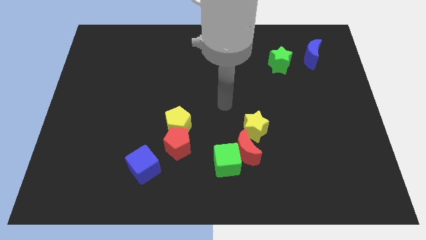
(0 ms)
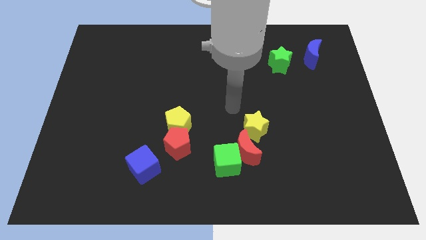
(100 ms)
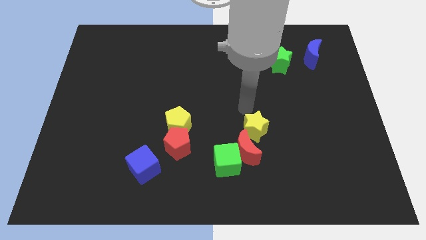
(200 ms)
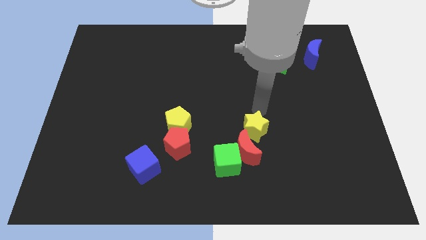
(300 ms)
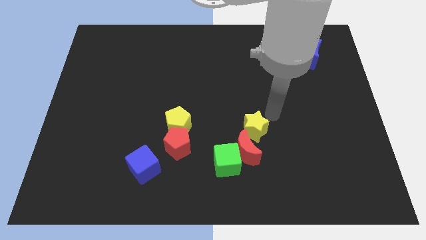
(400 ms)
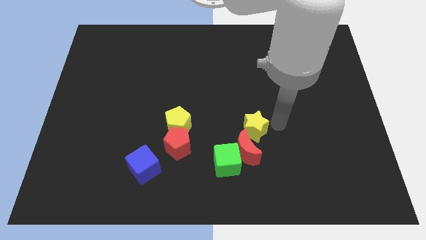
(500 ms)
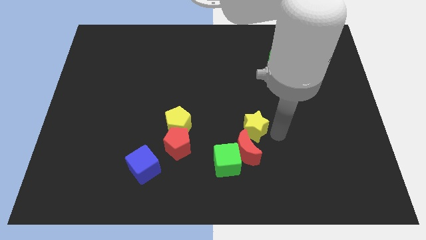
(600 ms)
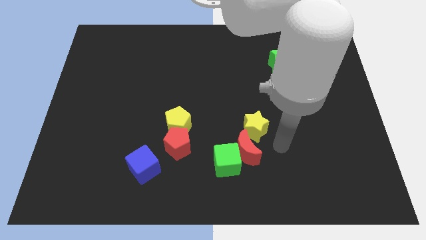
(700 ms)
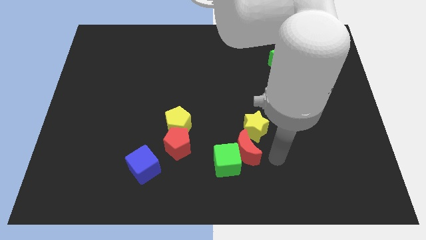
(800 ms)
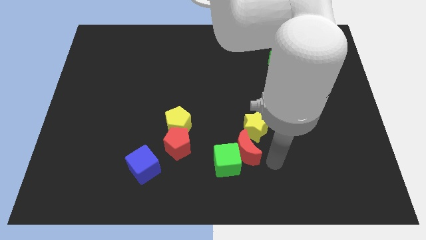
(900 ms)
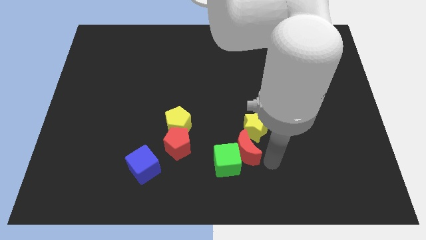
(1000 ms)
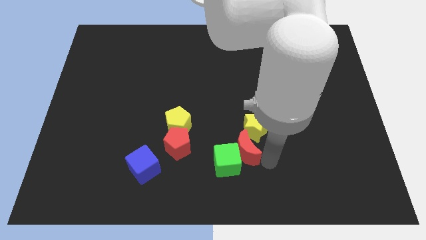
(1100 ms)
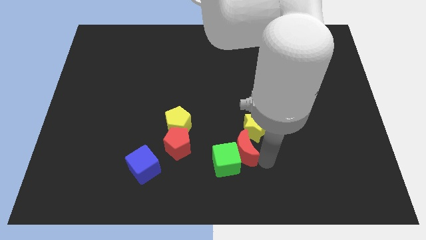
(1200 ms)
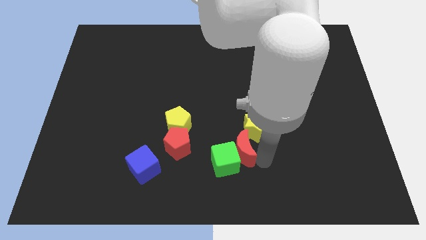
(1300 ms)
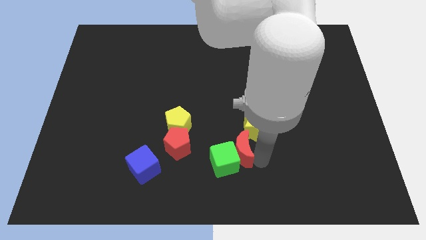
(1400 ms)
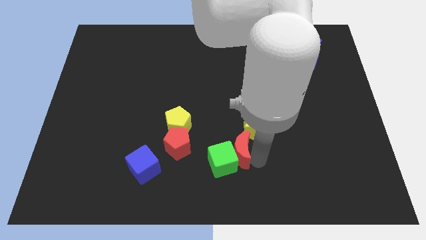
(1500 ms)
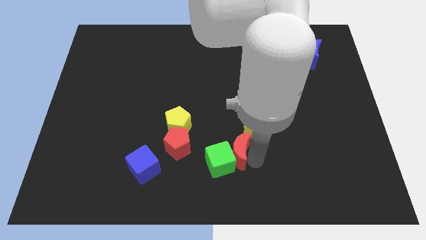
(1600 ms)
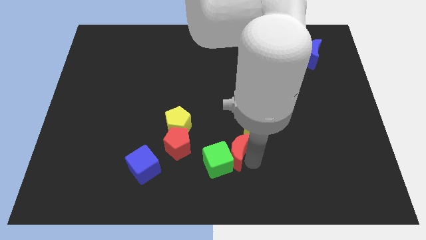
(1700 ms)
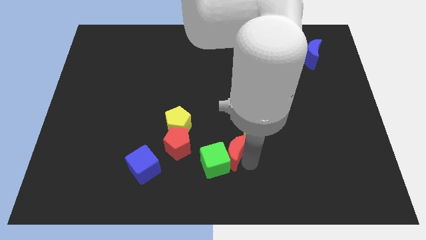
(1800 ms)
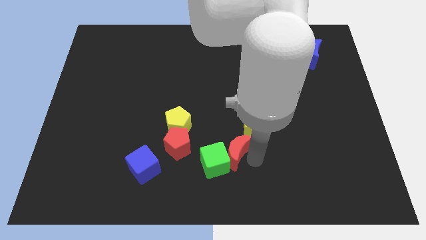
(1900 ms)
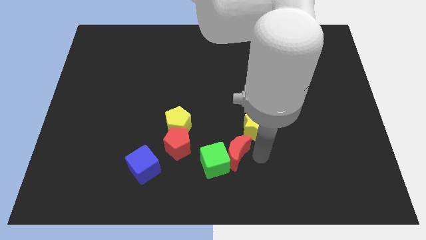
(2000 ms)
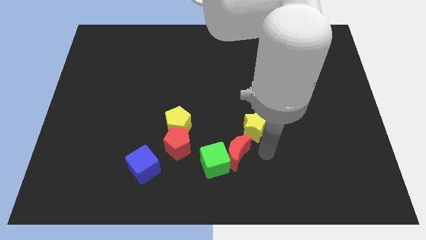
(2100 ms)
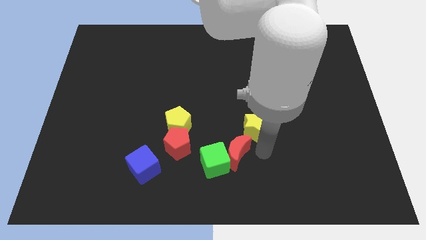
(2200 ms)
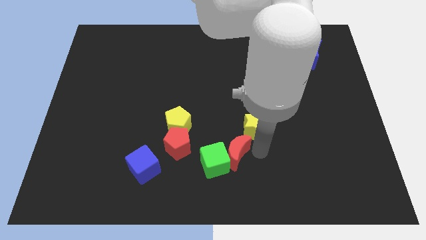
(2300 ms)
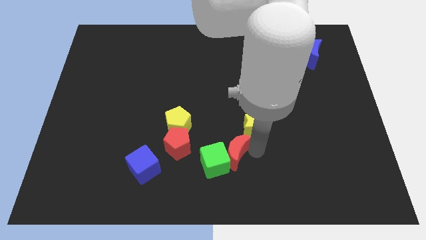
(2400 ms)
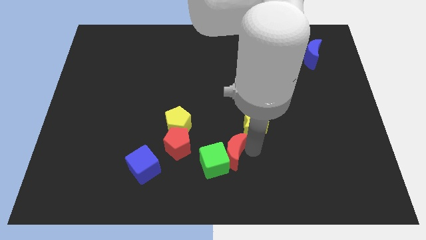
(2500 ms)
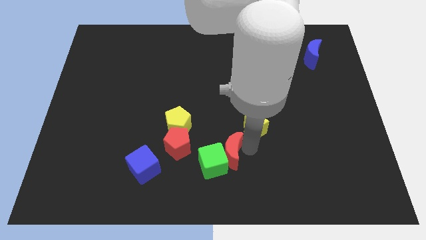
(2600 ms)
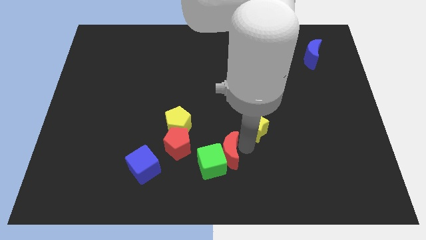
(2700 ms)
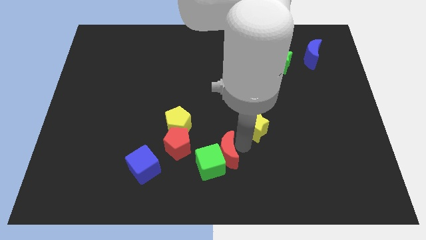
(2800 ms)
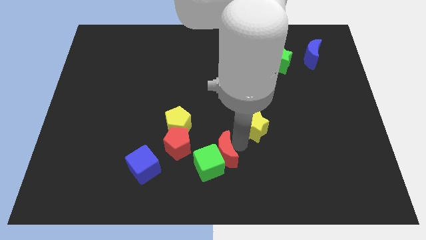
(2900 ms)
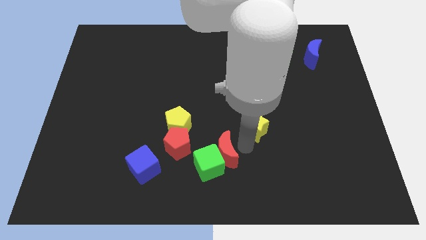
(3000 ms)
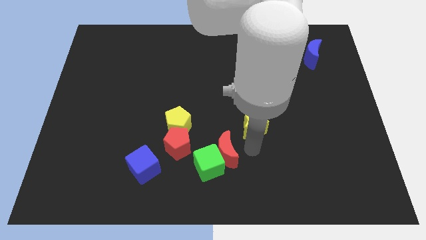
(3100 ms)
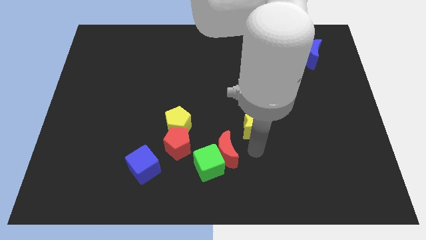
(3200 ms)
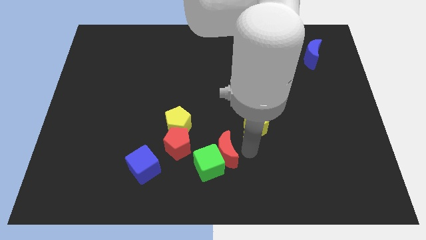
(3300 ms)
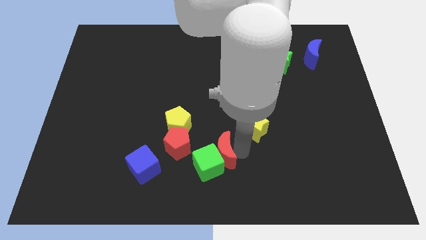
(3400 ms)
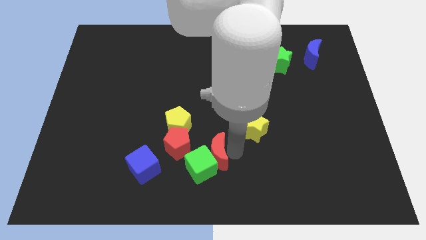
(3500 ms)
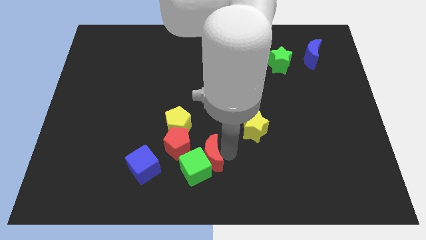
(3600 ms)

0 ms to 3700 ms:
slide the red moon to the left slightly

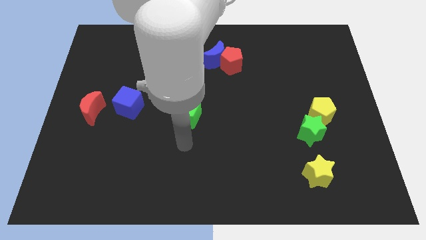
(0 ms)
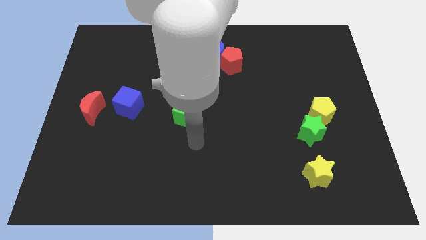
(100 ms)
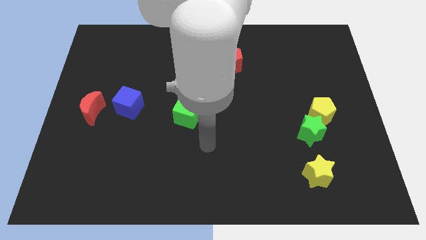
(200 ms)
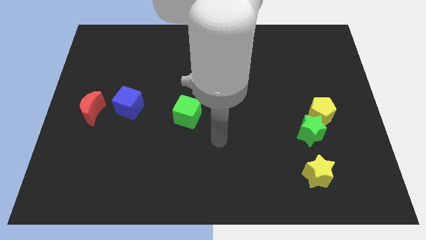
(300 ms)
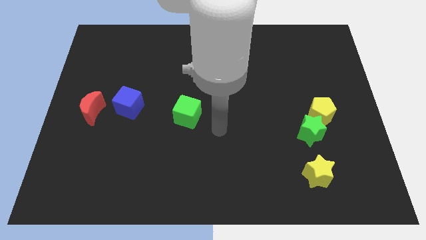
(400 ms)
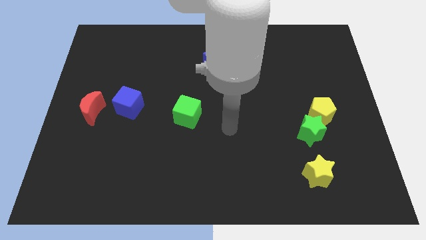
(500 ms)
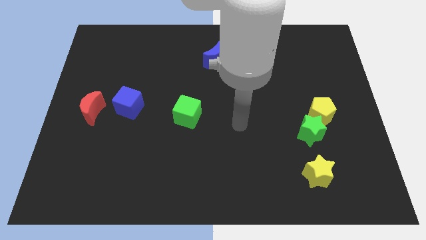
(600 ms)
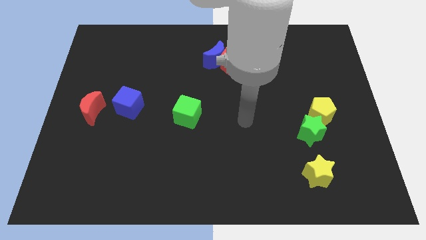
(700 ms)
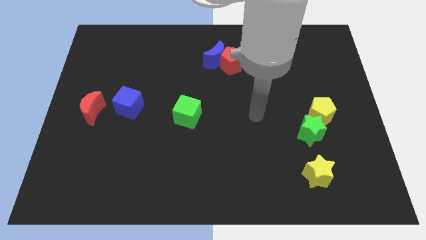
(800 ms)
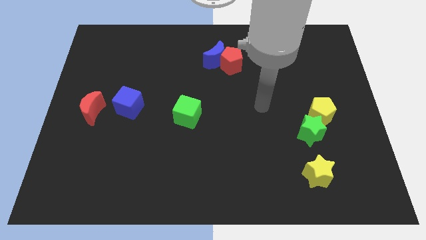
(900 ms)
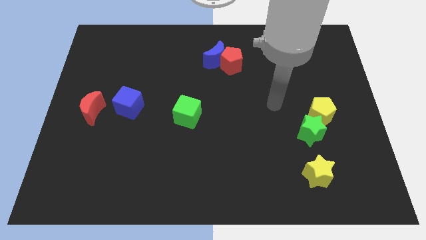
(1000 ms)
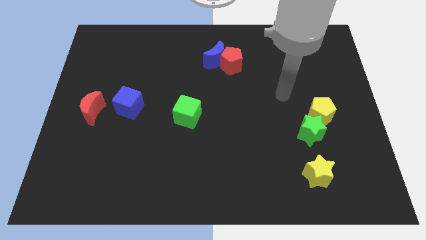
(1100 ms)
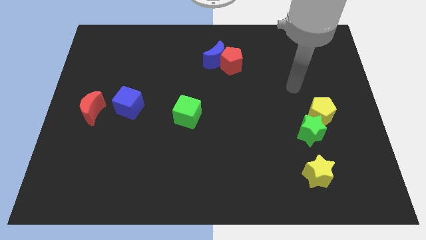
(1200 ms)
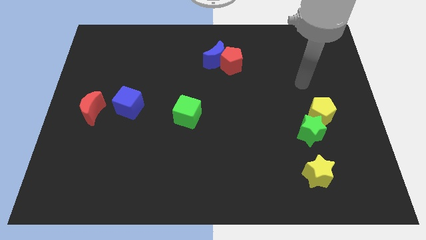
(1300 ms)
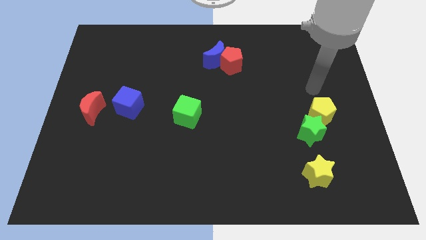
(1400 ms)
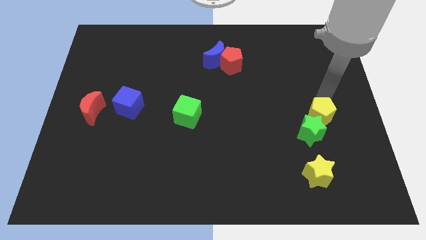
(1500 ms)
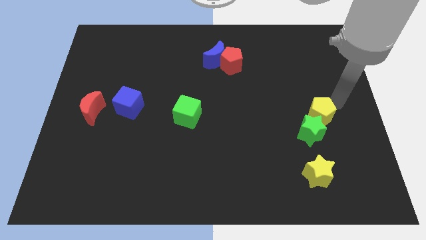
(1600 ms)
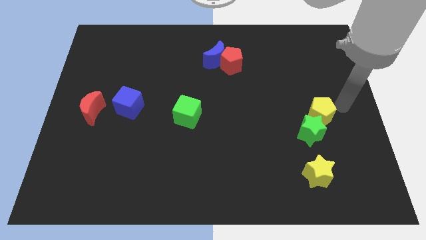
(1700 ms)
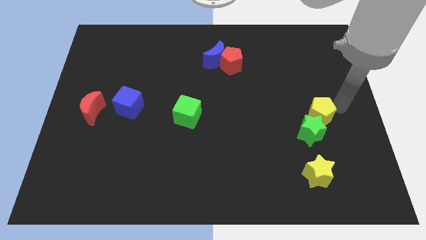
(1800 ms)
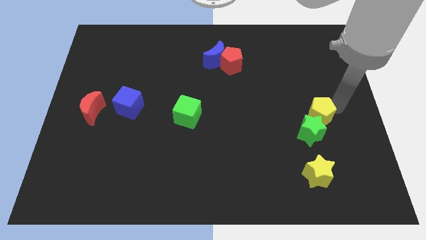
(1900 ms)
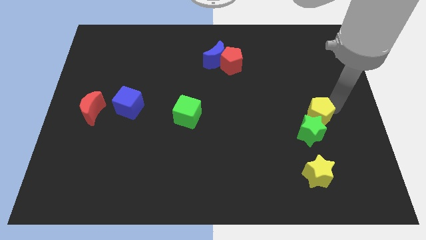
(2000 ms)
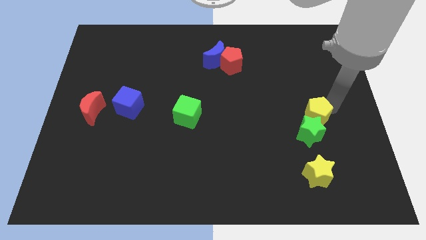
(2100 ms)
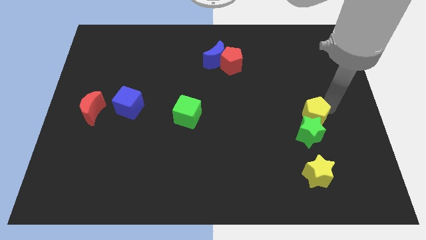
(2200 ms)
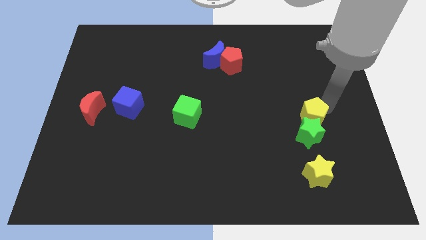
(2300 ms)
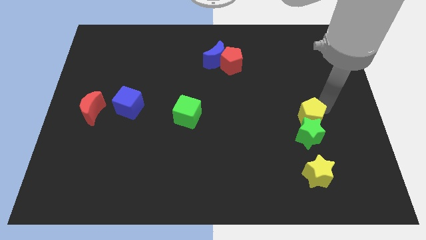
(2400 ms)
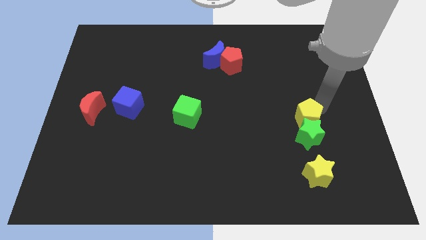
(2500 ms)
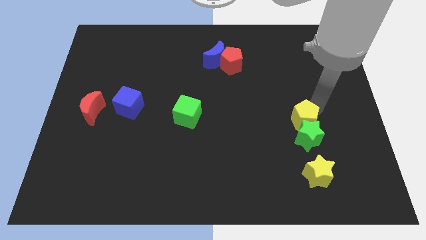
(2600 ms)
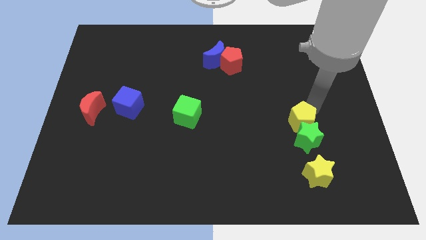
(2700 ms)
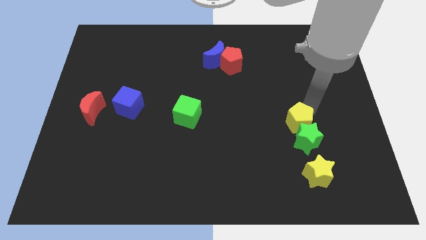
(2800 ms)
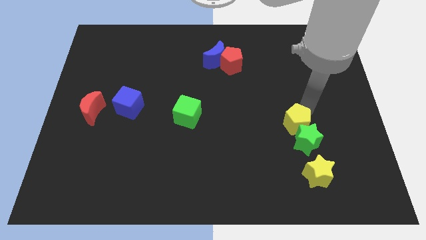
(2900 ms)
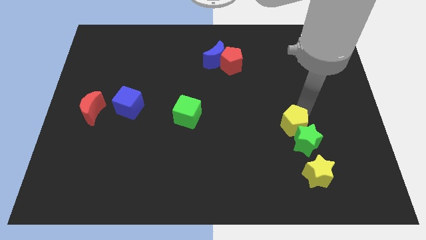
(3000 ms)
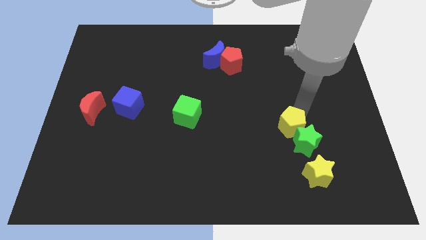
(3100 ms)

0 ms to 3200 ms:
slide the yellow pentagon a bit downwards and to the left

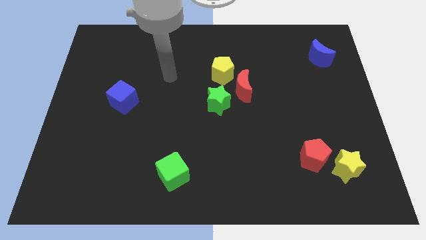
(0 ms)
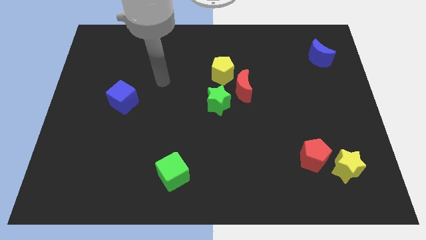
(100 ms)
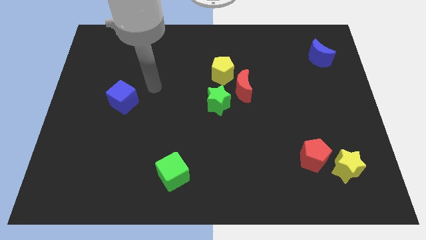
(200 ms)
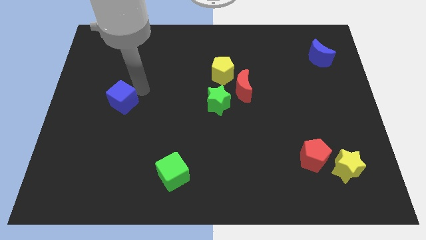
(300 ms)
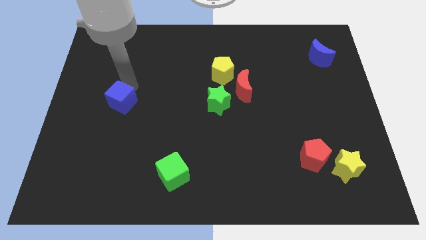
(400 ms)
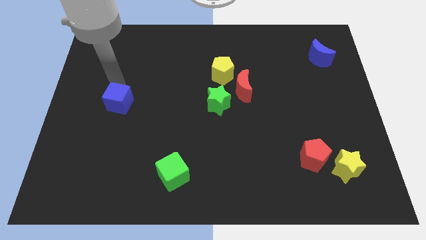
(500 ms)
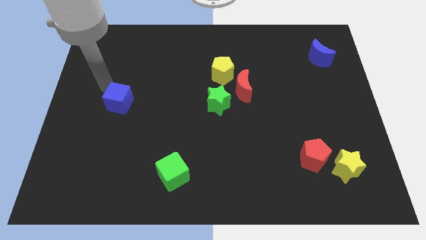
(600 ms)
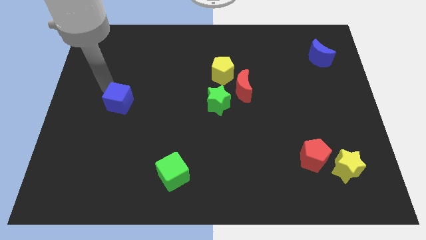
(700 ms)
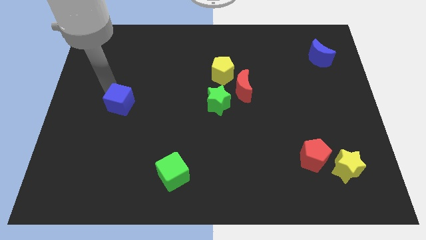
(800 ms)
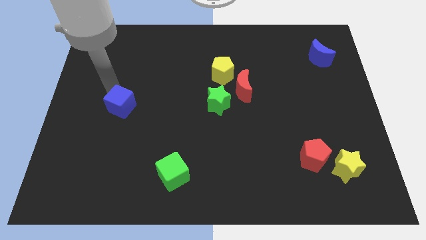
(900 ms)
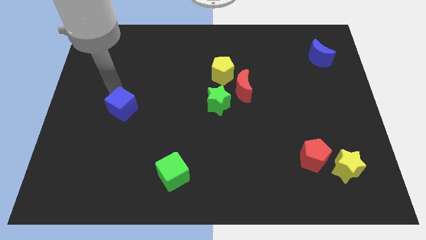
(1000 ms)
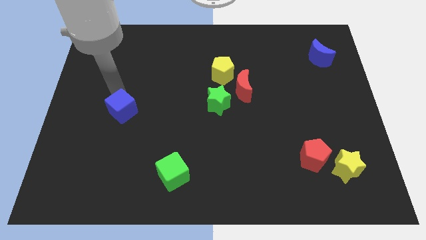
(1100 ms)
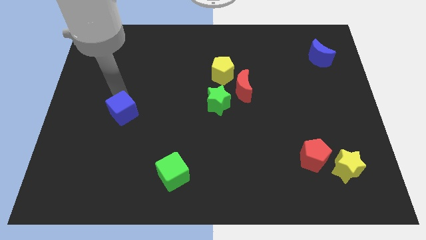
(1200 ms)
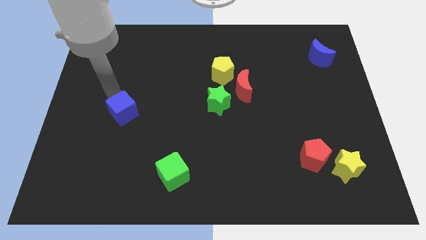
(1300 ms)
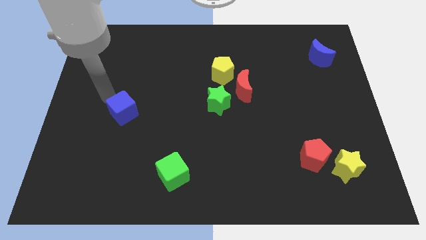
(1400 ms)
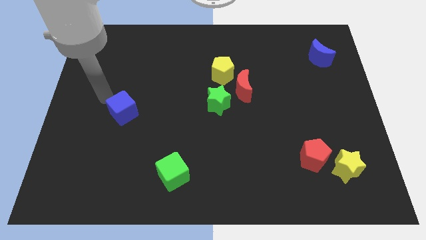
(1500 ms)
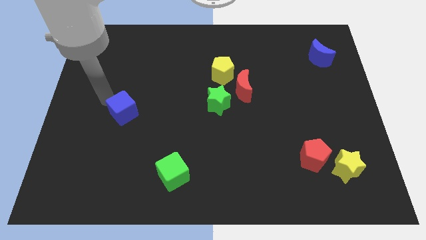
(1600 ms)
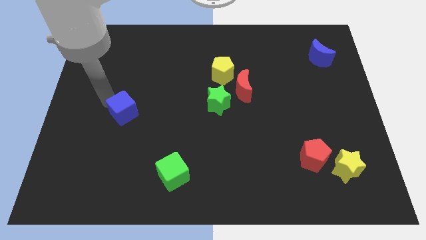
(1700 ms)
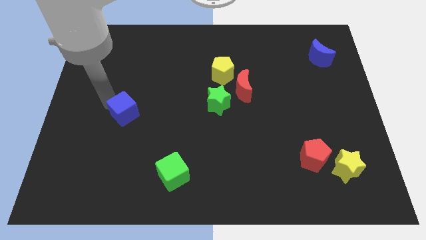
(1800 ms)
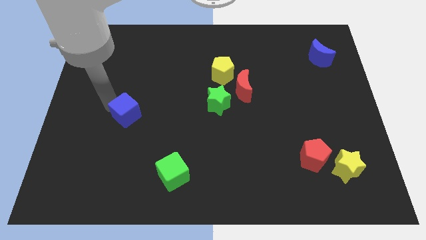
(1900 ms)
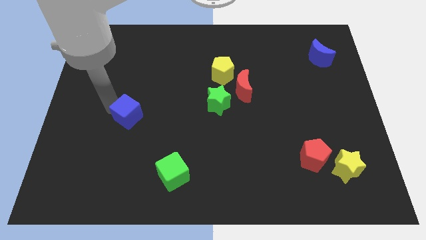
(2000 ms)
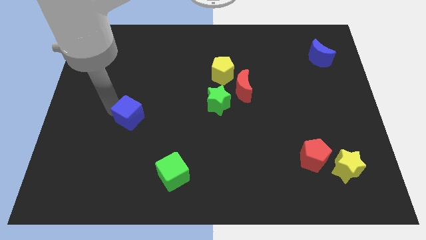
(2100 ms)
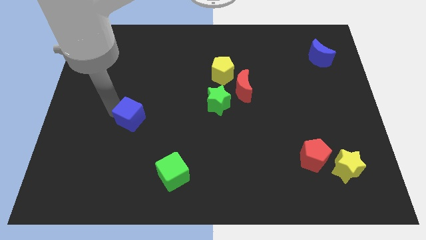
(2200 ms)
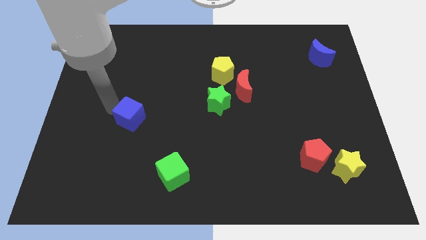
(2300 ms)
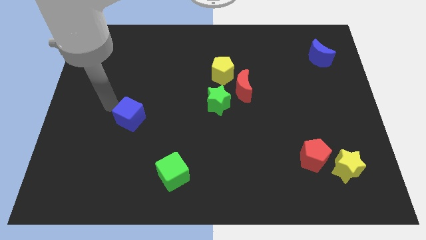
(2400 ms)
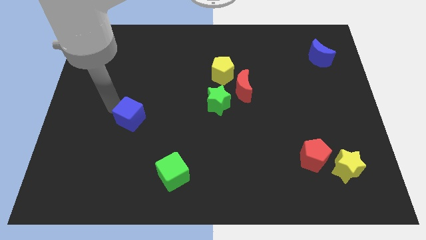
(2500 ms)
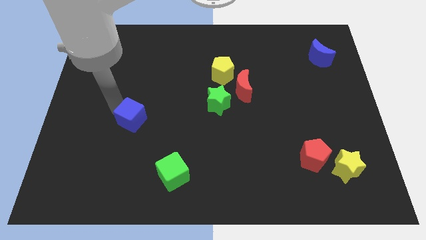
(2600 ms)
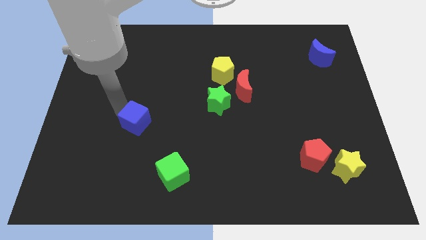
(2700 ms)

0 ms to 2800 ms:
move the blue cube a bit downwards and to the right
